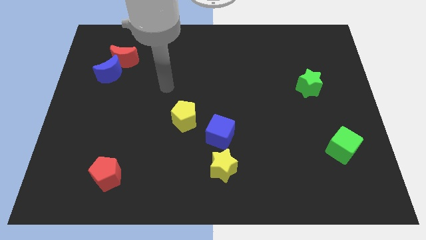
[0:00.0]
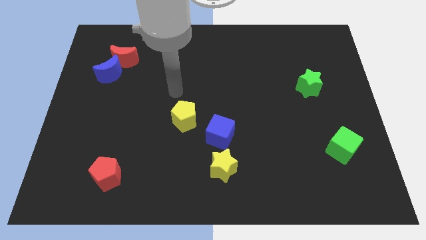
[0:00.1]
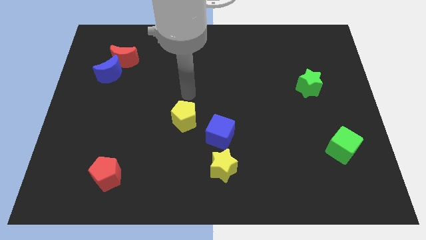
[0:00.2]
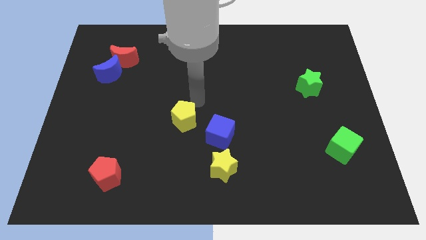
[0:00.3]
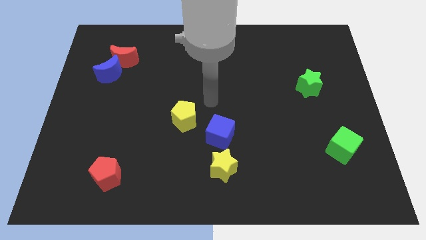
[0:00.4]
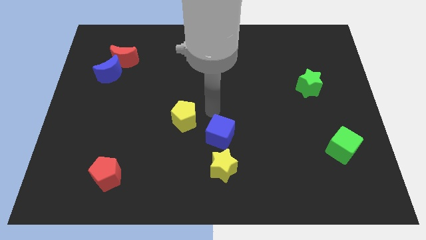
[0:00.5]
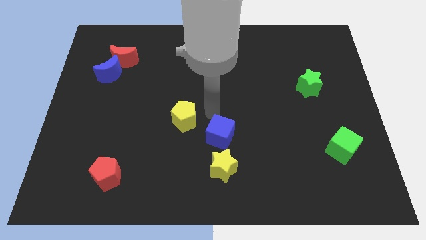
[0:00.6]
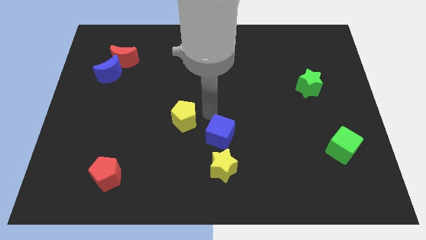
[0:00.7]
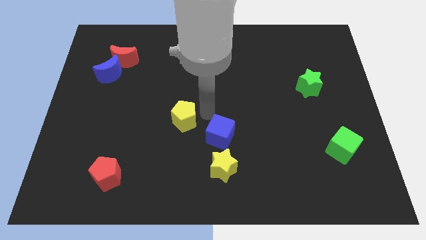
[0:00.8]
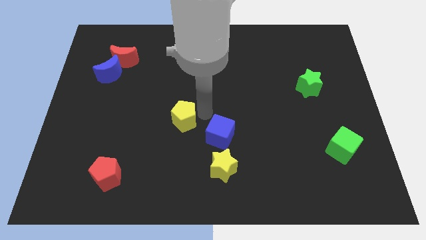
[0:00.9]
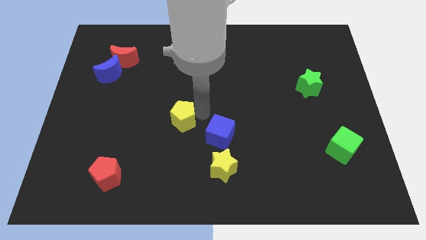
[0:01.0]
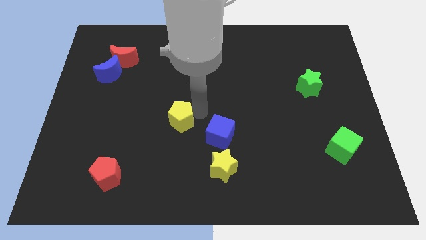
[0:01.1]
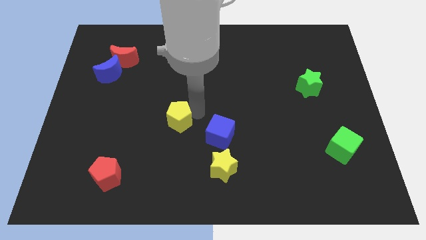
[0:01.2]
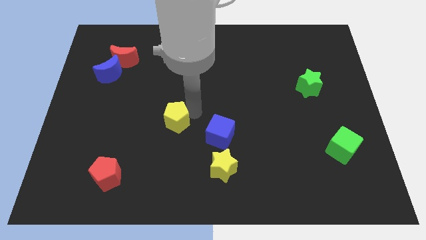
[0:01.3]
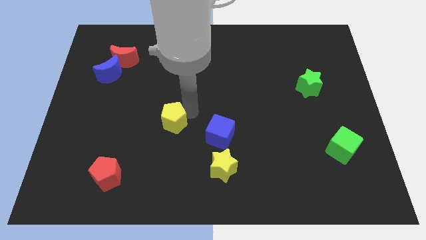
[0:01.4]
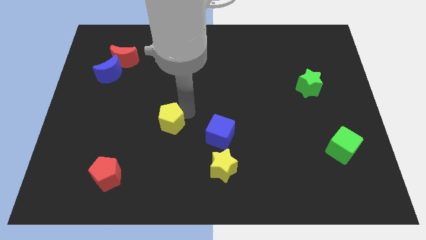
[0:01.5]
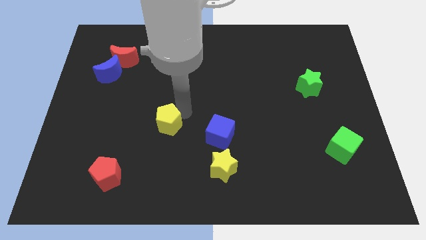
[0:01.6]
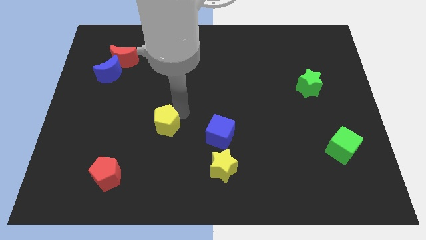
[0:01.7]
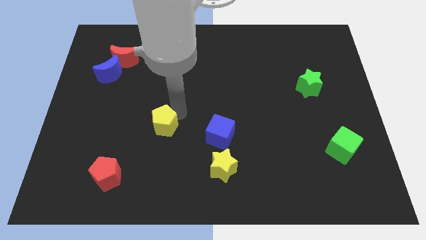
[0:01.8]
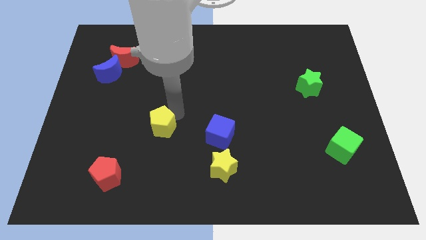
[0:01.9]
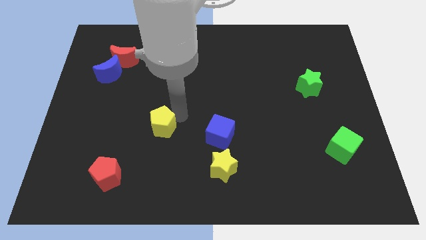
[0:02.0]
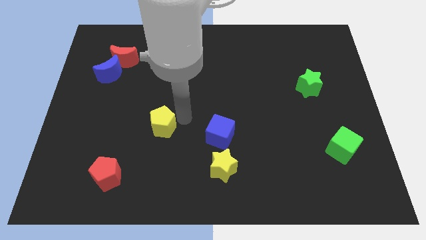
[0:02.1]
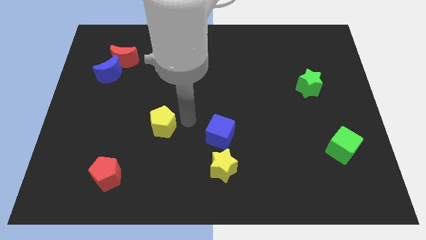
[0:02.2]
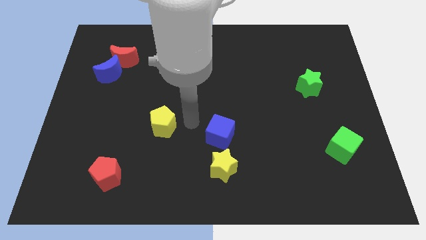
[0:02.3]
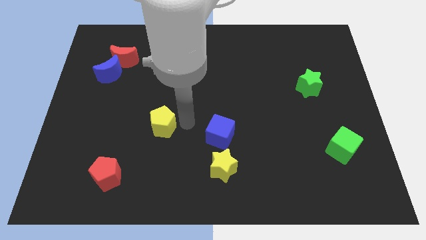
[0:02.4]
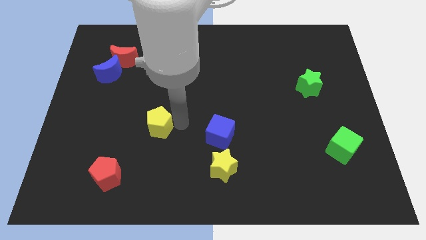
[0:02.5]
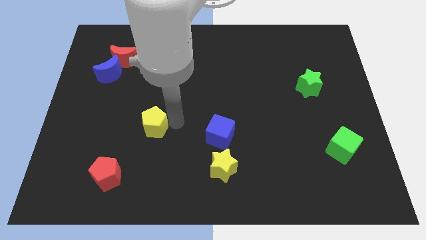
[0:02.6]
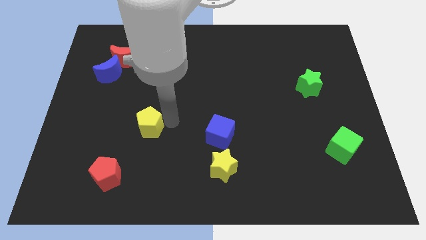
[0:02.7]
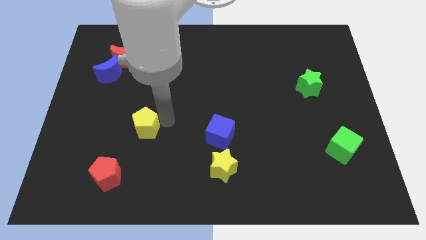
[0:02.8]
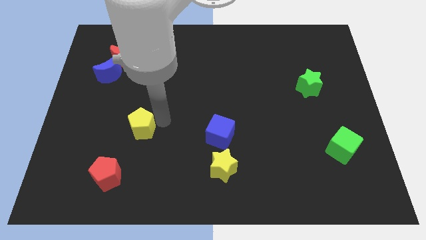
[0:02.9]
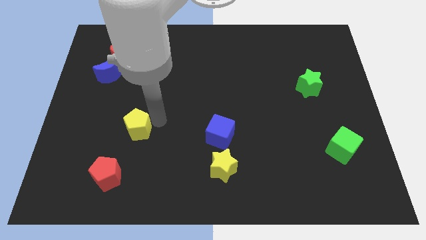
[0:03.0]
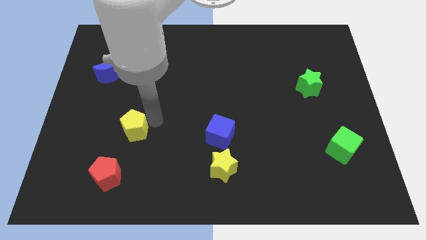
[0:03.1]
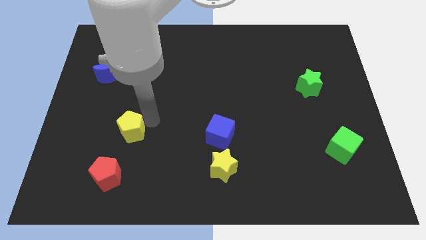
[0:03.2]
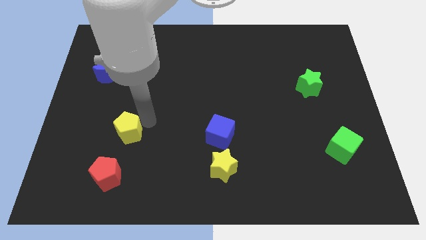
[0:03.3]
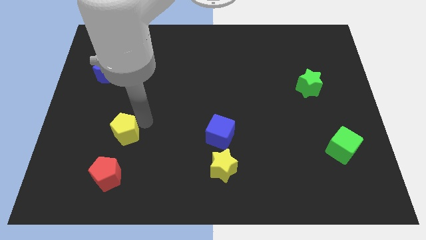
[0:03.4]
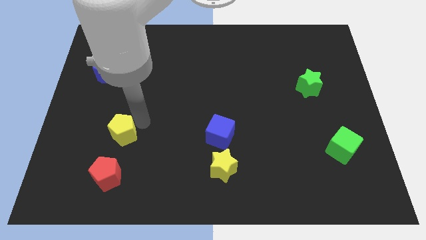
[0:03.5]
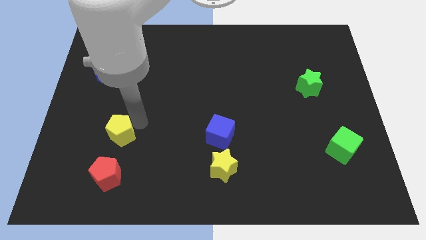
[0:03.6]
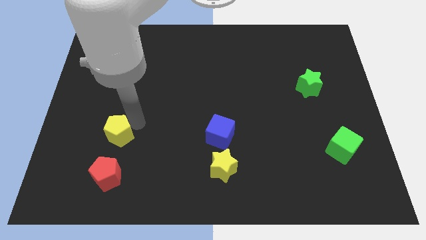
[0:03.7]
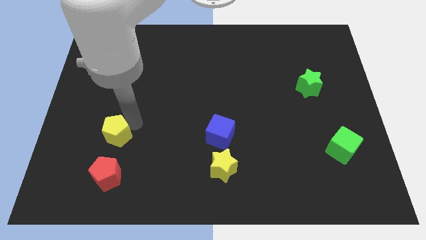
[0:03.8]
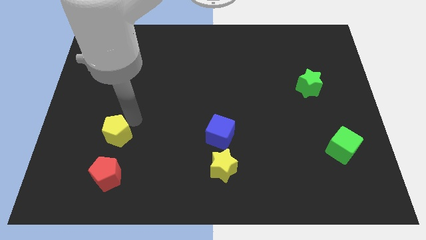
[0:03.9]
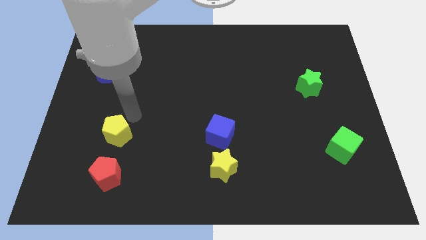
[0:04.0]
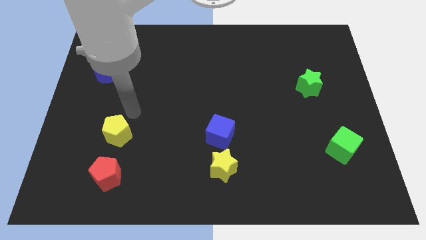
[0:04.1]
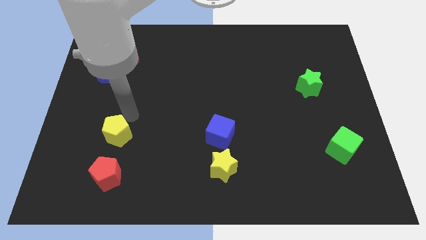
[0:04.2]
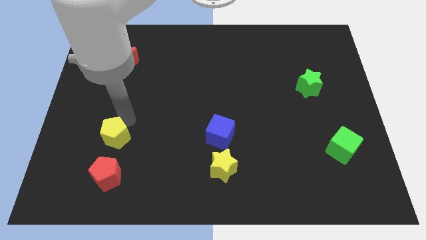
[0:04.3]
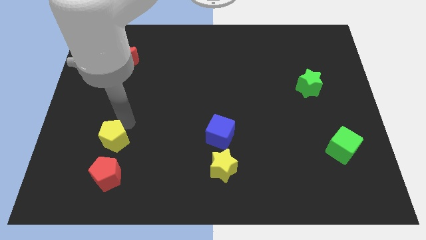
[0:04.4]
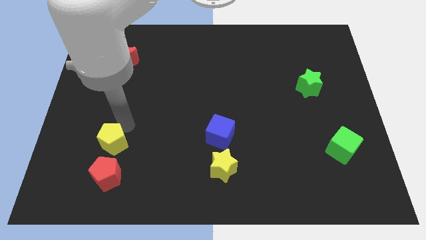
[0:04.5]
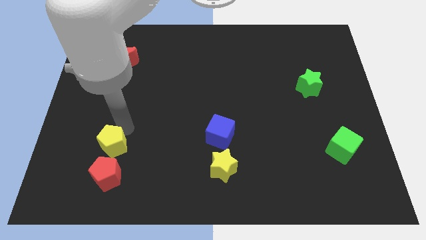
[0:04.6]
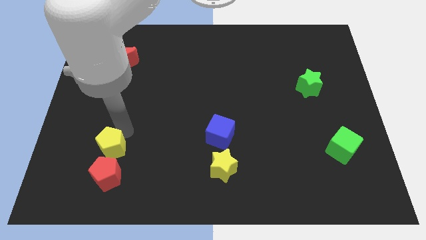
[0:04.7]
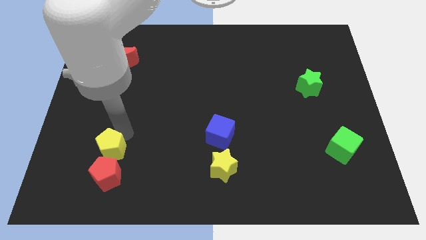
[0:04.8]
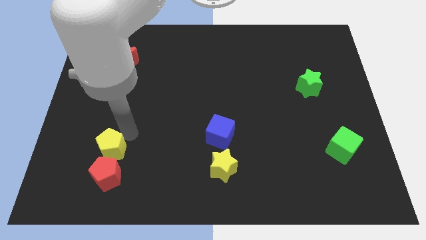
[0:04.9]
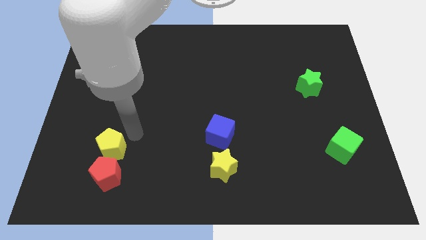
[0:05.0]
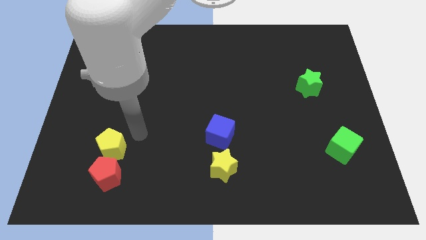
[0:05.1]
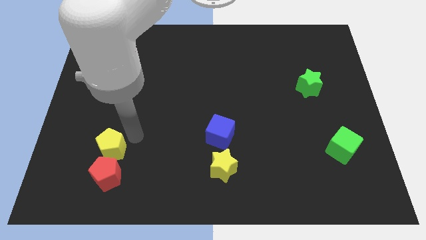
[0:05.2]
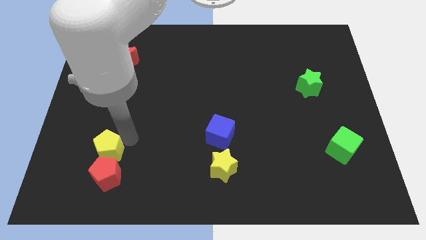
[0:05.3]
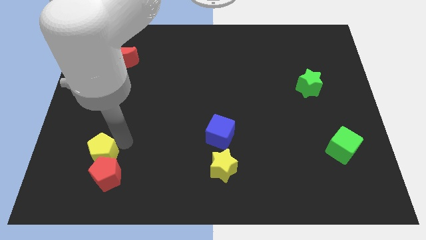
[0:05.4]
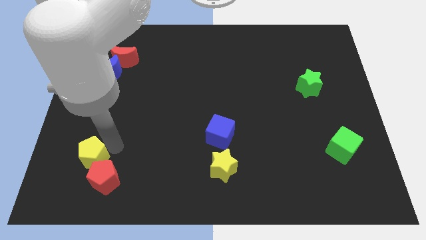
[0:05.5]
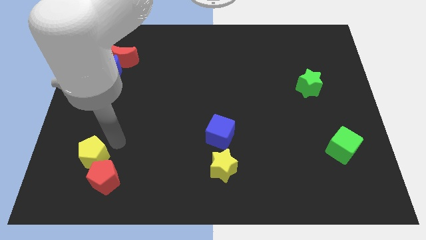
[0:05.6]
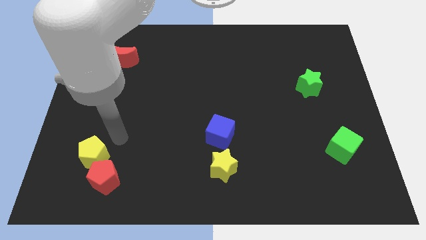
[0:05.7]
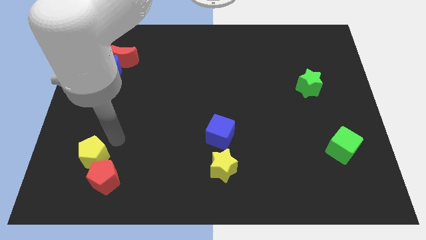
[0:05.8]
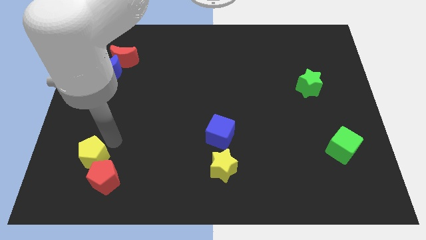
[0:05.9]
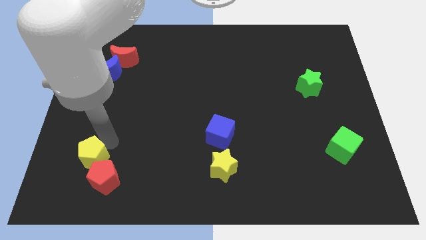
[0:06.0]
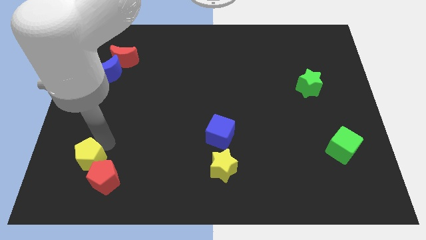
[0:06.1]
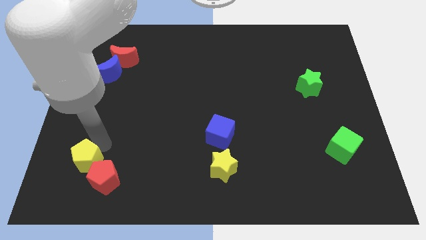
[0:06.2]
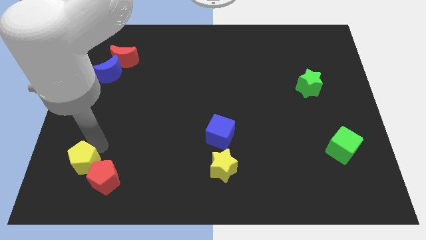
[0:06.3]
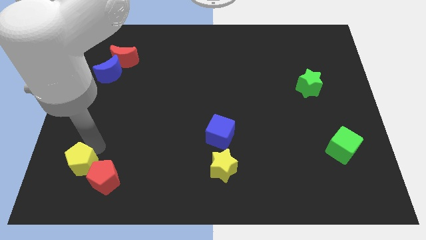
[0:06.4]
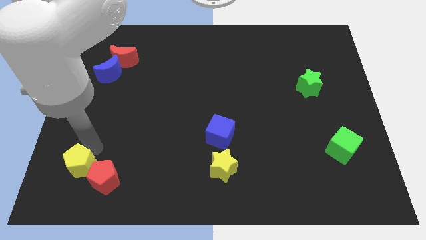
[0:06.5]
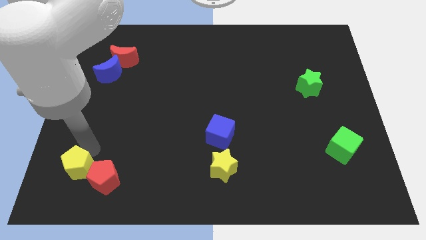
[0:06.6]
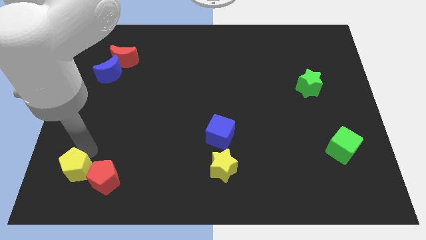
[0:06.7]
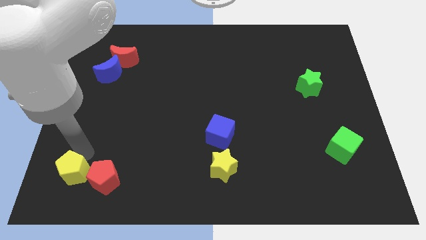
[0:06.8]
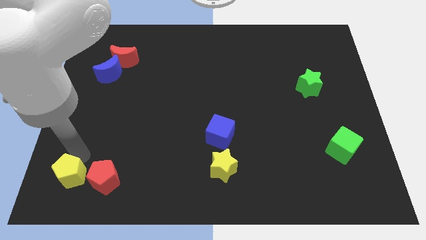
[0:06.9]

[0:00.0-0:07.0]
move the yellow pentagon to the bottom left corner

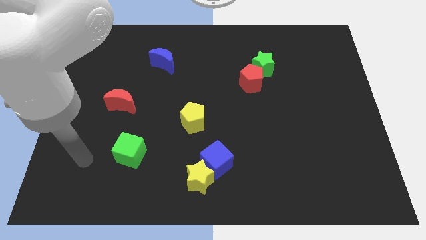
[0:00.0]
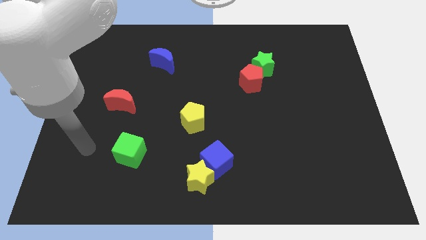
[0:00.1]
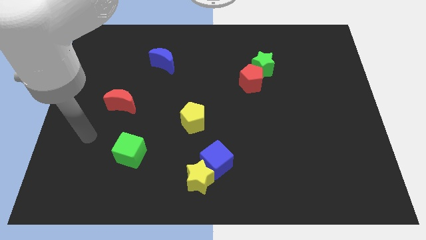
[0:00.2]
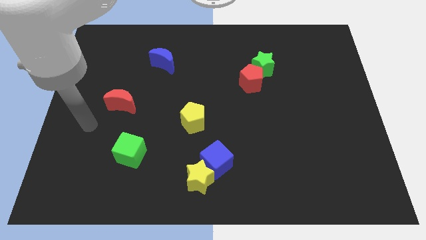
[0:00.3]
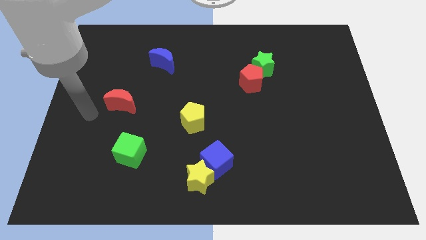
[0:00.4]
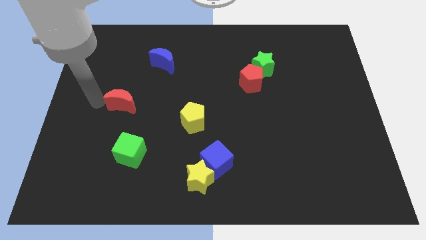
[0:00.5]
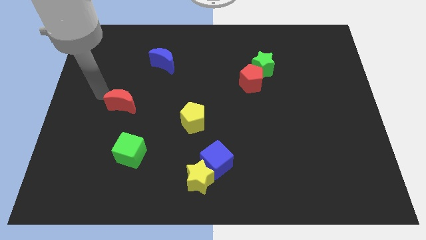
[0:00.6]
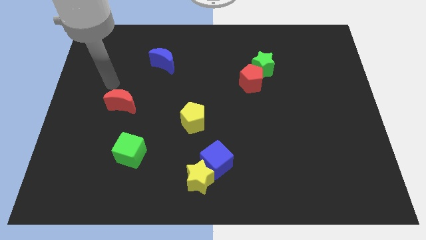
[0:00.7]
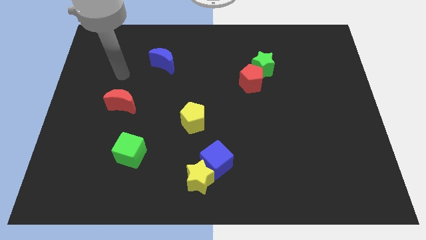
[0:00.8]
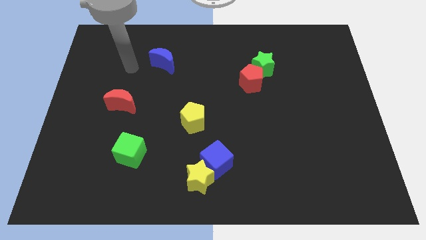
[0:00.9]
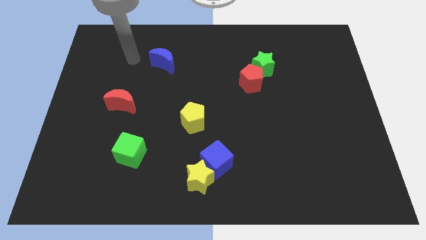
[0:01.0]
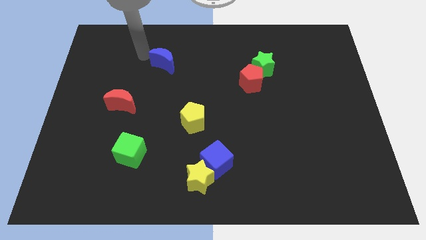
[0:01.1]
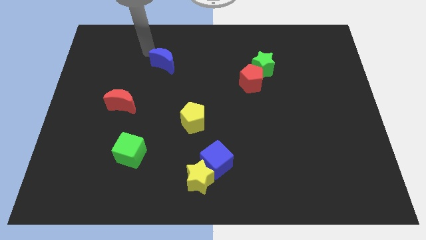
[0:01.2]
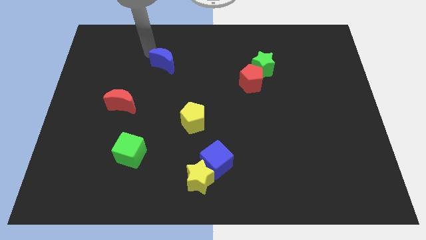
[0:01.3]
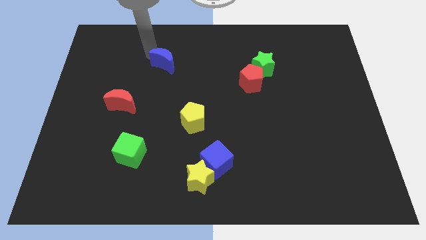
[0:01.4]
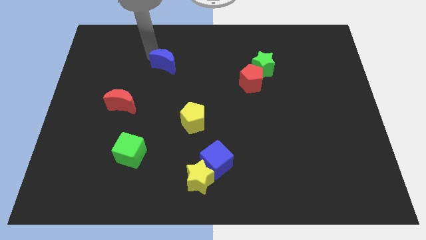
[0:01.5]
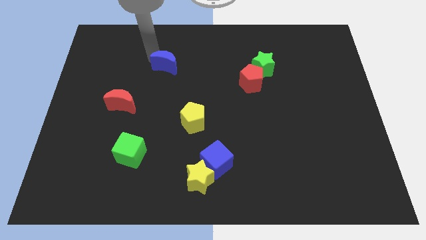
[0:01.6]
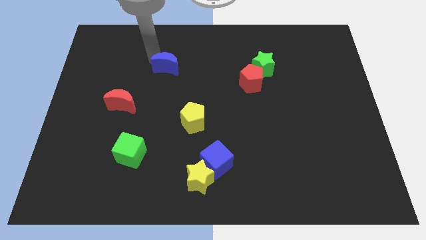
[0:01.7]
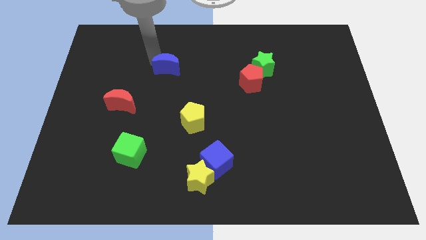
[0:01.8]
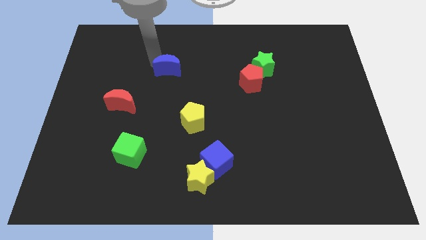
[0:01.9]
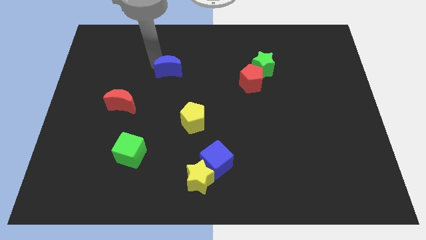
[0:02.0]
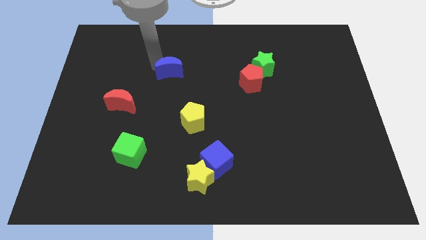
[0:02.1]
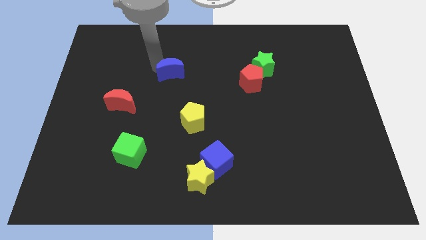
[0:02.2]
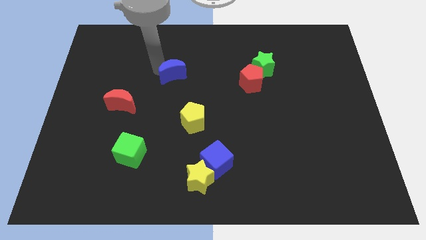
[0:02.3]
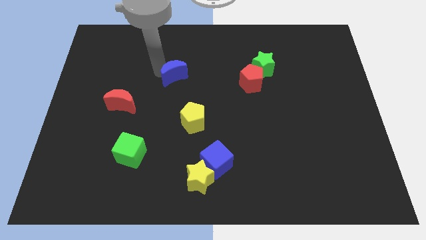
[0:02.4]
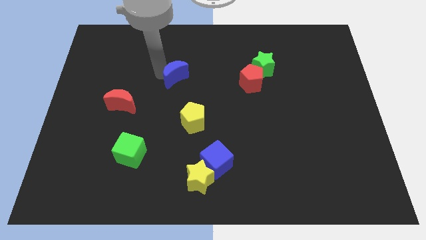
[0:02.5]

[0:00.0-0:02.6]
move the blue moon to the center of the board
